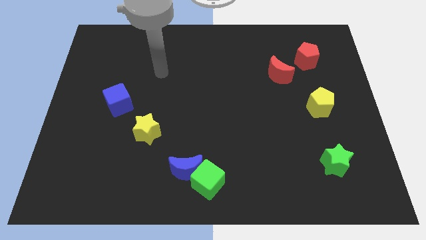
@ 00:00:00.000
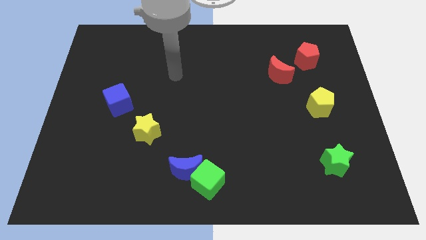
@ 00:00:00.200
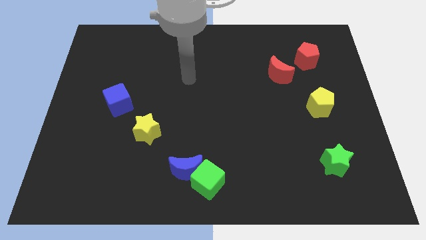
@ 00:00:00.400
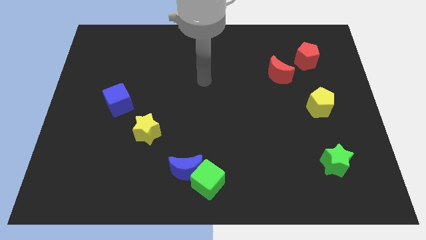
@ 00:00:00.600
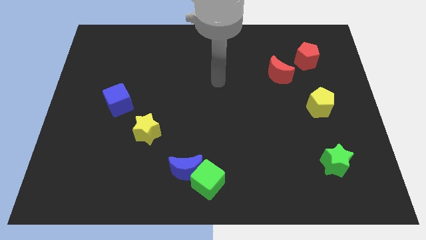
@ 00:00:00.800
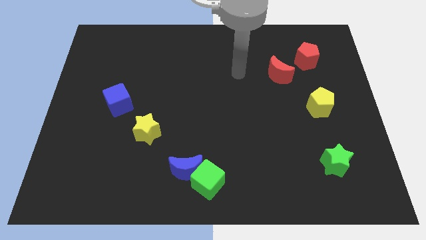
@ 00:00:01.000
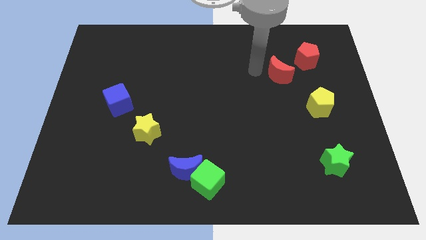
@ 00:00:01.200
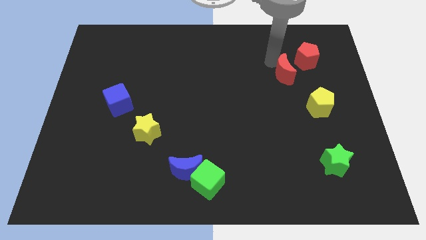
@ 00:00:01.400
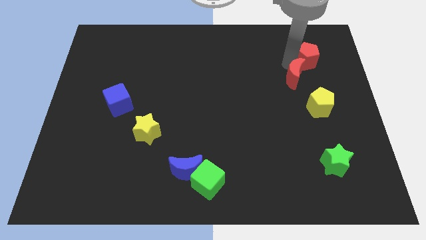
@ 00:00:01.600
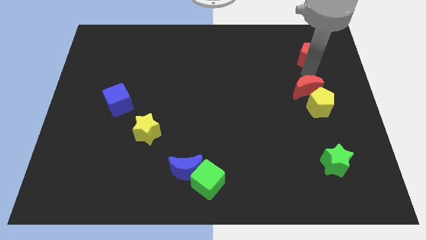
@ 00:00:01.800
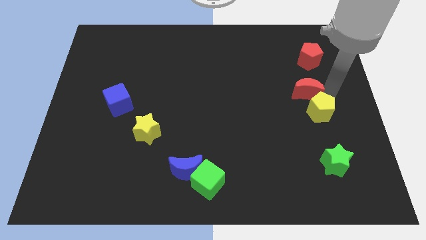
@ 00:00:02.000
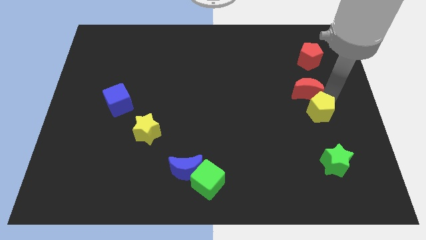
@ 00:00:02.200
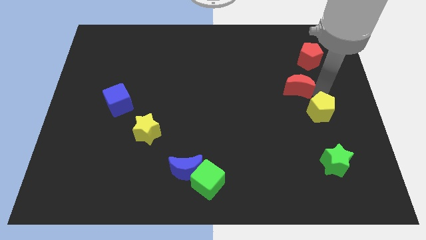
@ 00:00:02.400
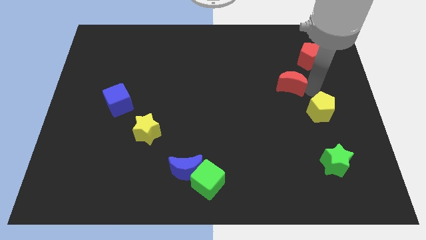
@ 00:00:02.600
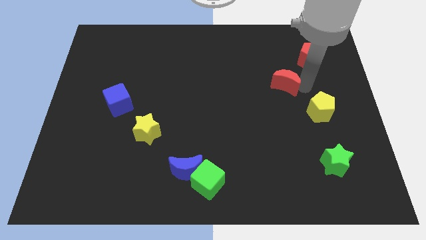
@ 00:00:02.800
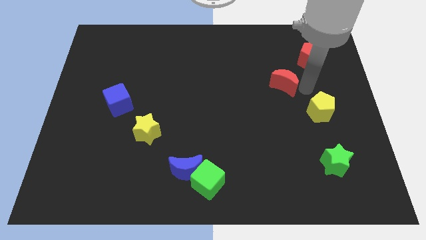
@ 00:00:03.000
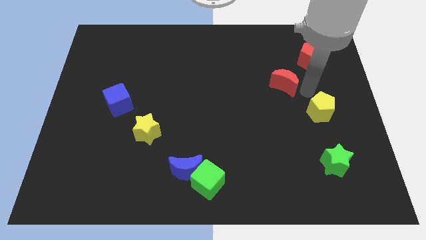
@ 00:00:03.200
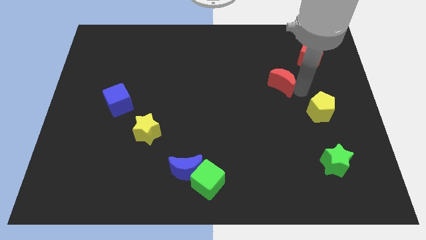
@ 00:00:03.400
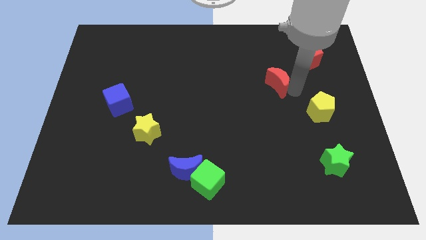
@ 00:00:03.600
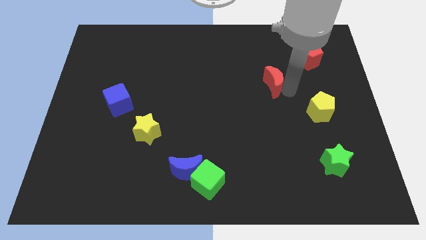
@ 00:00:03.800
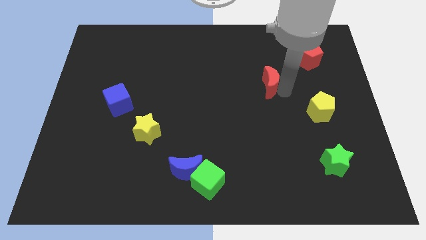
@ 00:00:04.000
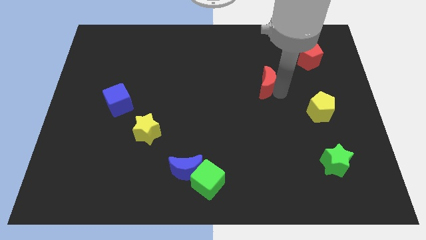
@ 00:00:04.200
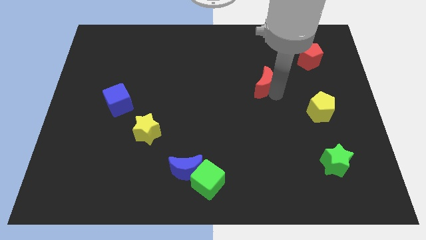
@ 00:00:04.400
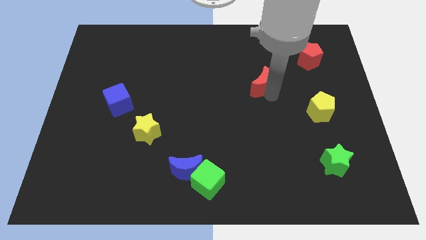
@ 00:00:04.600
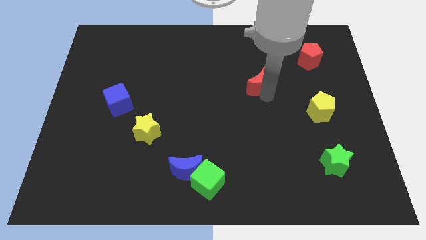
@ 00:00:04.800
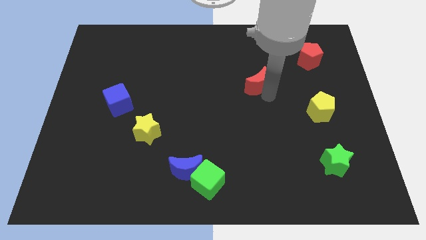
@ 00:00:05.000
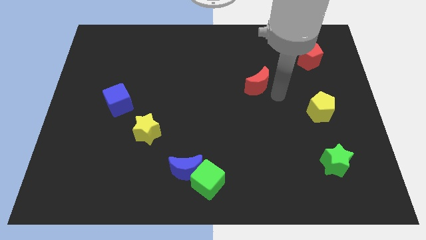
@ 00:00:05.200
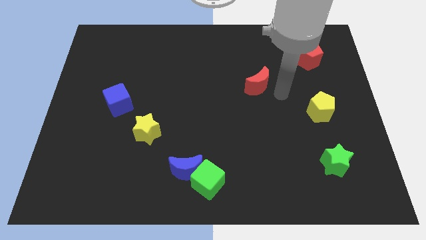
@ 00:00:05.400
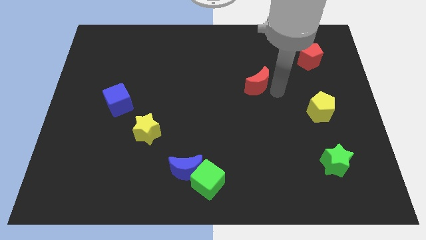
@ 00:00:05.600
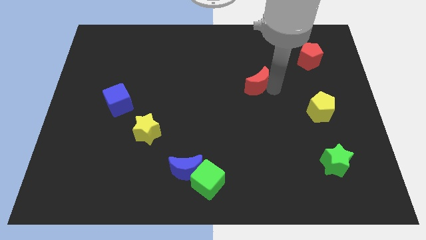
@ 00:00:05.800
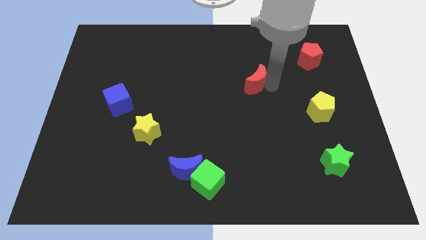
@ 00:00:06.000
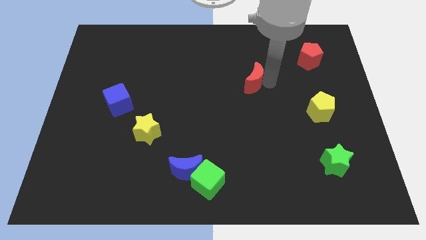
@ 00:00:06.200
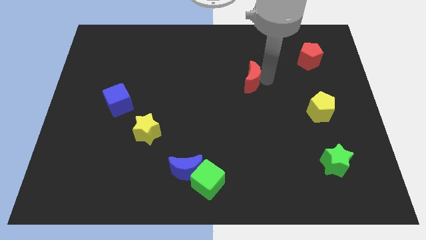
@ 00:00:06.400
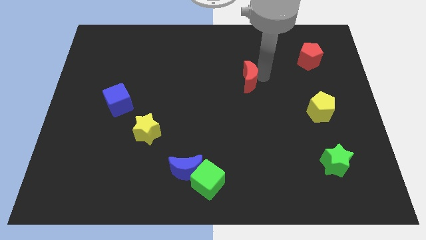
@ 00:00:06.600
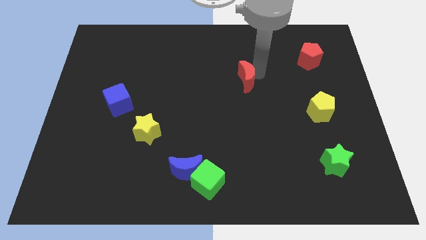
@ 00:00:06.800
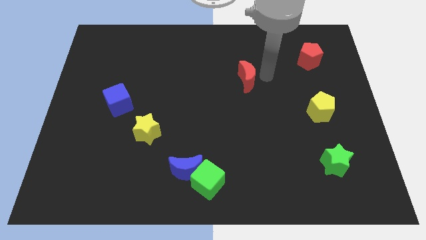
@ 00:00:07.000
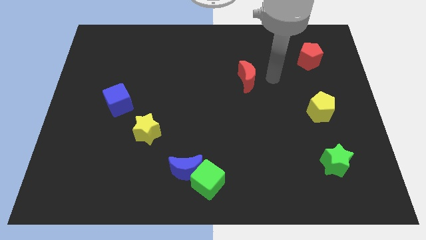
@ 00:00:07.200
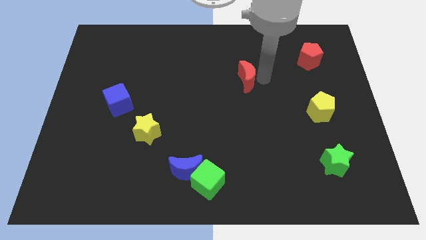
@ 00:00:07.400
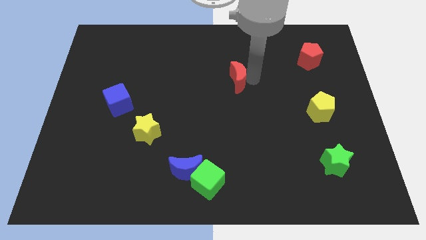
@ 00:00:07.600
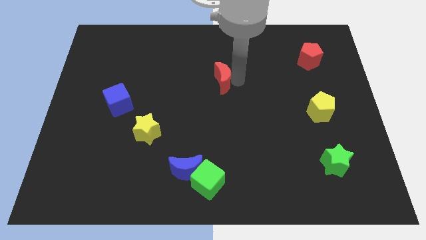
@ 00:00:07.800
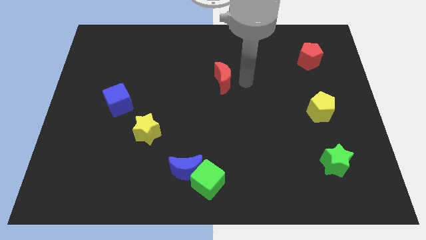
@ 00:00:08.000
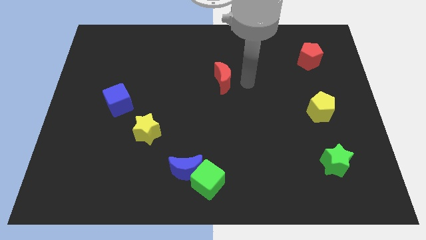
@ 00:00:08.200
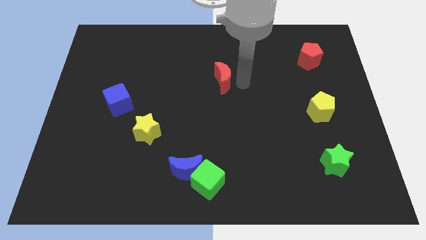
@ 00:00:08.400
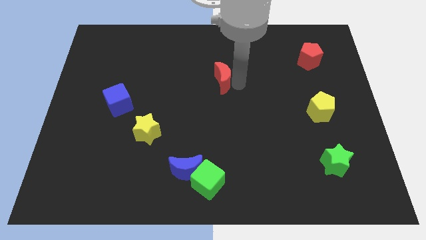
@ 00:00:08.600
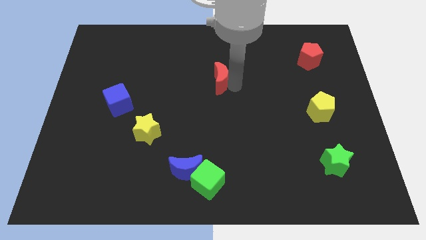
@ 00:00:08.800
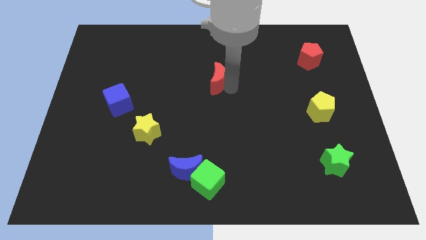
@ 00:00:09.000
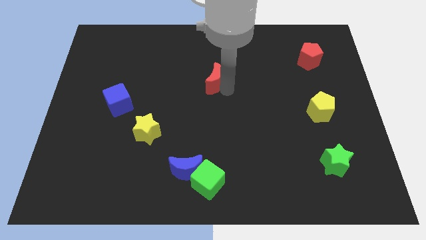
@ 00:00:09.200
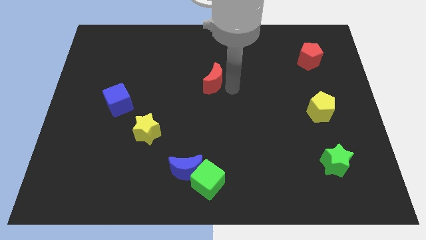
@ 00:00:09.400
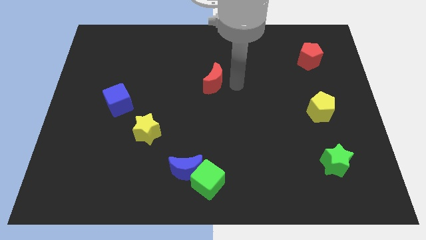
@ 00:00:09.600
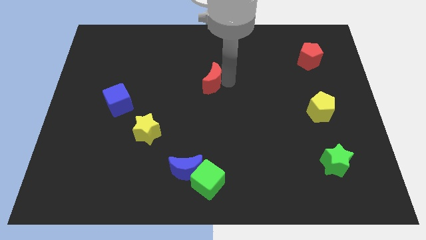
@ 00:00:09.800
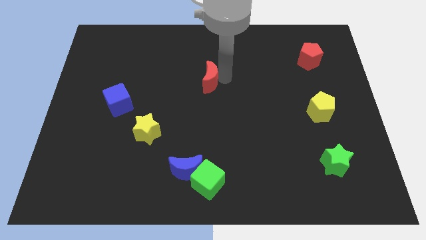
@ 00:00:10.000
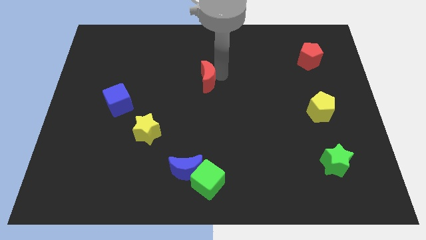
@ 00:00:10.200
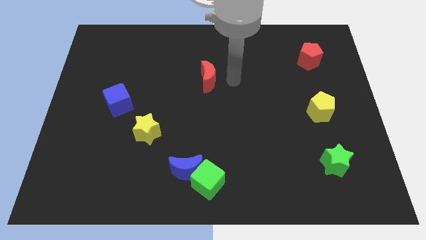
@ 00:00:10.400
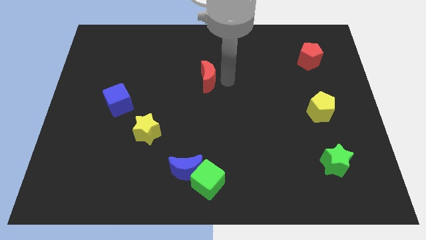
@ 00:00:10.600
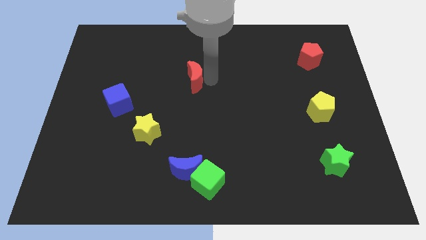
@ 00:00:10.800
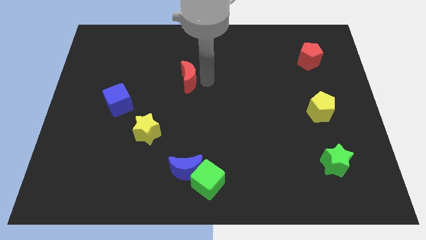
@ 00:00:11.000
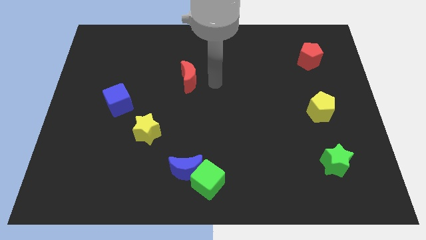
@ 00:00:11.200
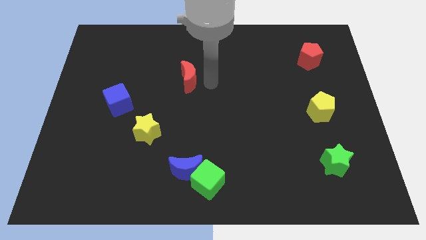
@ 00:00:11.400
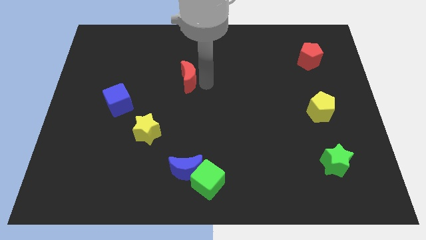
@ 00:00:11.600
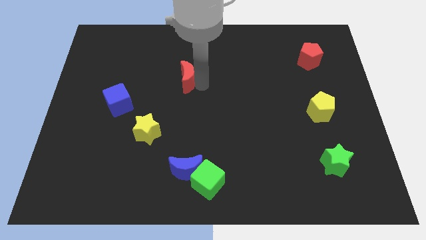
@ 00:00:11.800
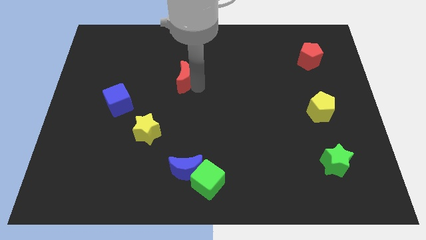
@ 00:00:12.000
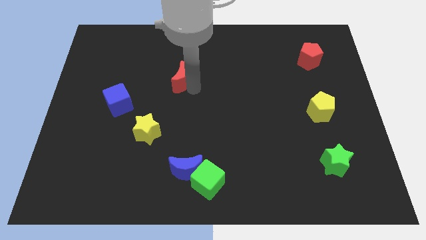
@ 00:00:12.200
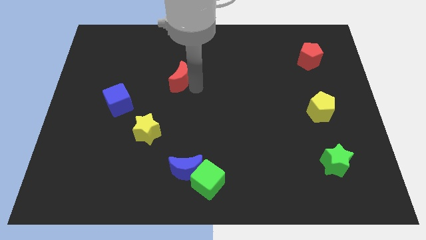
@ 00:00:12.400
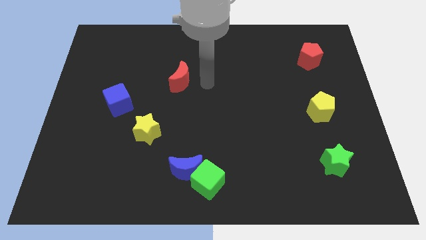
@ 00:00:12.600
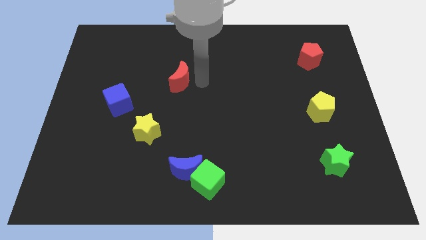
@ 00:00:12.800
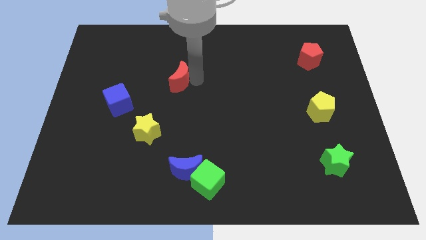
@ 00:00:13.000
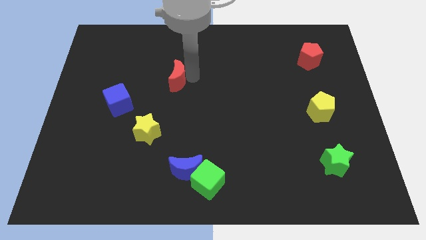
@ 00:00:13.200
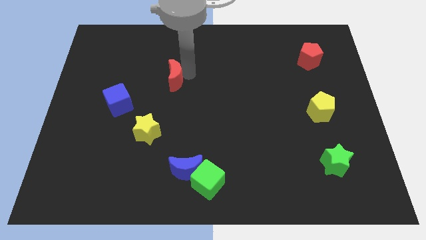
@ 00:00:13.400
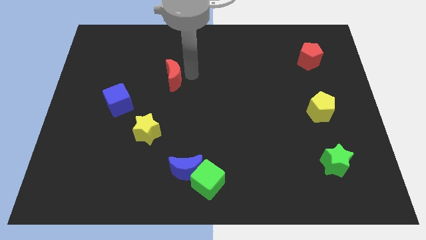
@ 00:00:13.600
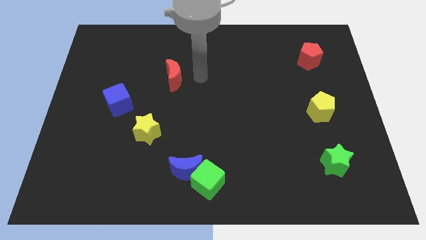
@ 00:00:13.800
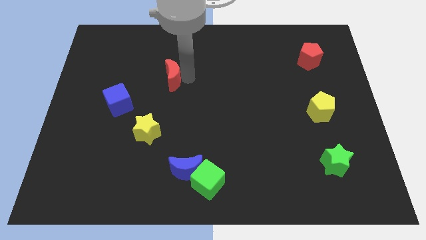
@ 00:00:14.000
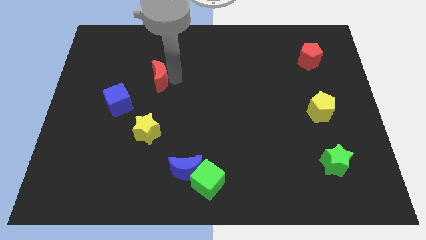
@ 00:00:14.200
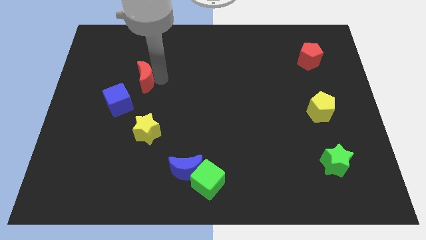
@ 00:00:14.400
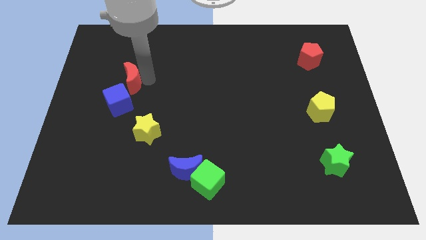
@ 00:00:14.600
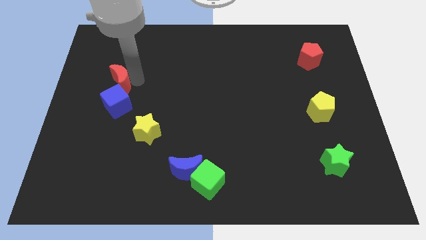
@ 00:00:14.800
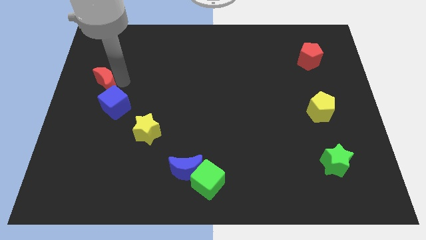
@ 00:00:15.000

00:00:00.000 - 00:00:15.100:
move the red moon to the center left

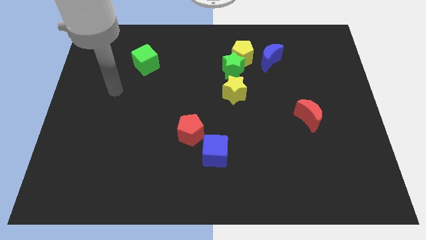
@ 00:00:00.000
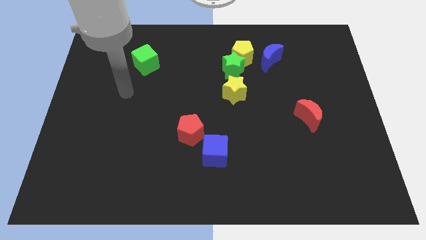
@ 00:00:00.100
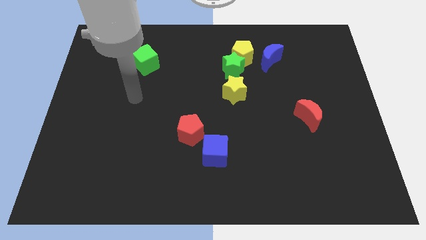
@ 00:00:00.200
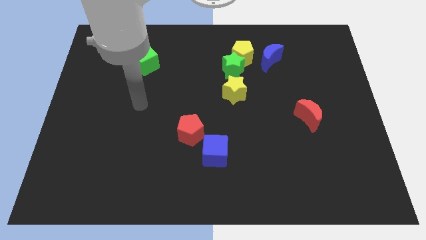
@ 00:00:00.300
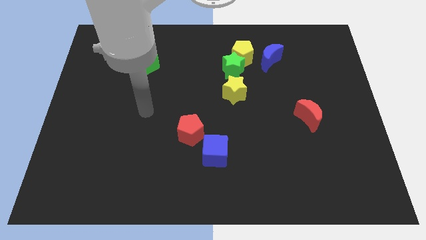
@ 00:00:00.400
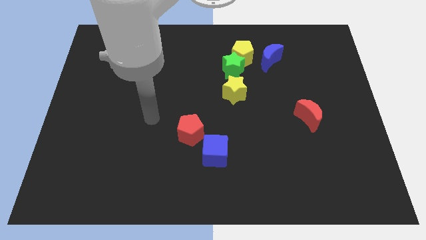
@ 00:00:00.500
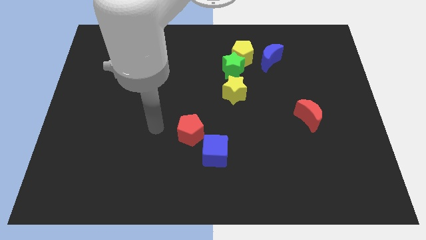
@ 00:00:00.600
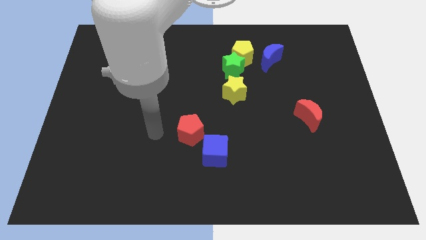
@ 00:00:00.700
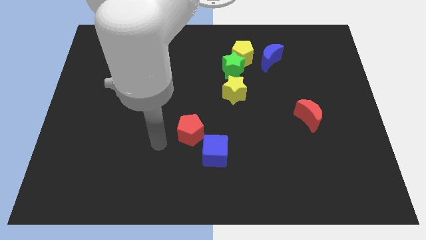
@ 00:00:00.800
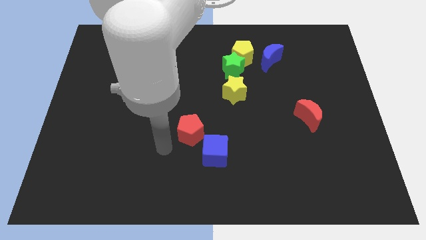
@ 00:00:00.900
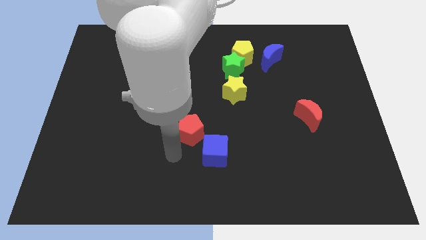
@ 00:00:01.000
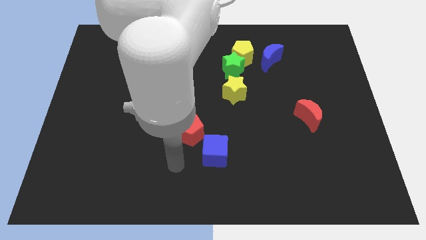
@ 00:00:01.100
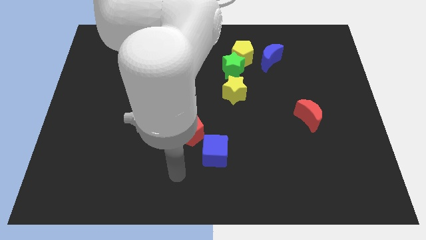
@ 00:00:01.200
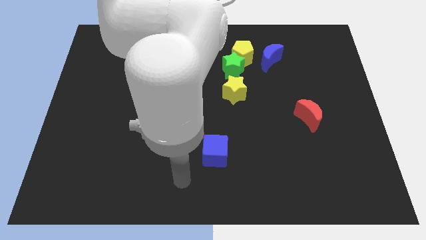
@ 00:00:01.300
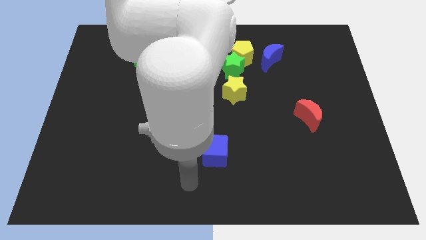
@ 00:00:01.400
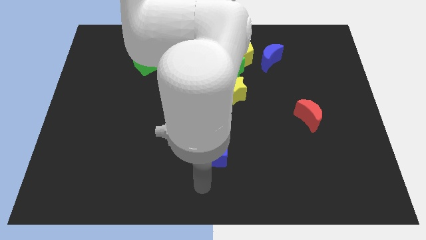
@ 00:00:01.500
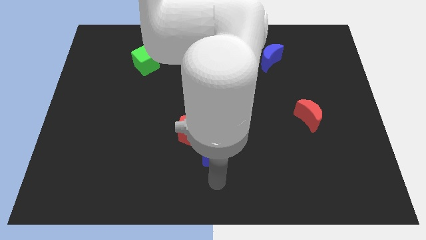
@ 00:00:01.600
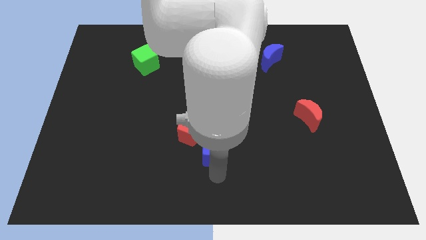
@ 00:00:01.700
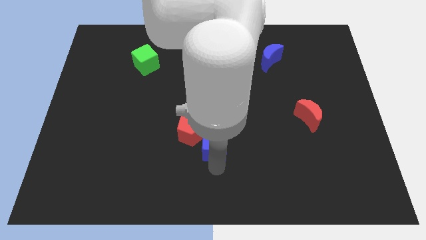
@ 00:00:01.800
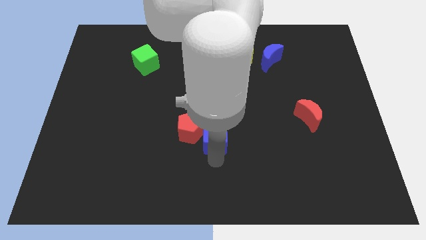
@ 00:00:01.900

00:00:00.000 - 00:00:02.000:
slide the blue cube to the center of the board
